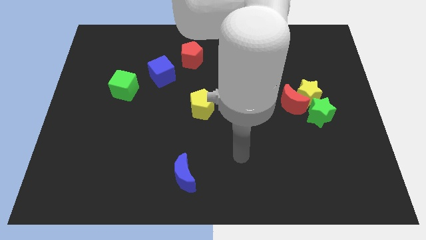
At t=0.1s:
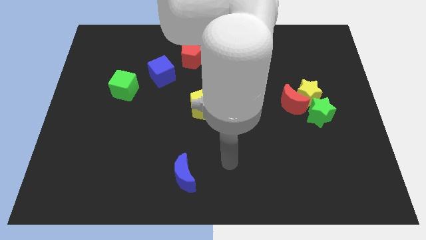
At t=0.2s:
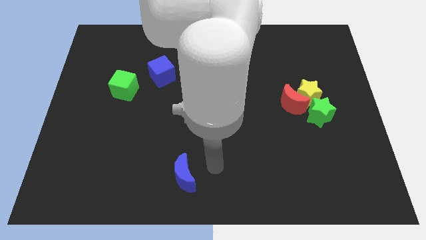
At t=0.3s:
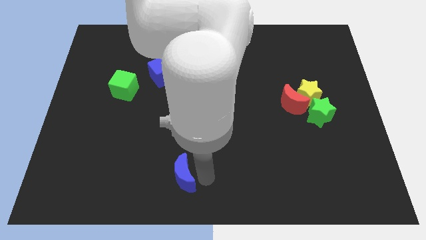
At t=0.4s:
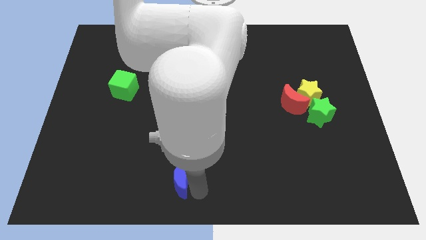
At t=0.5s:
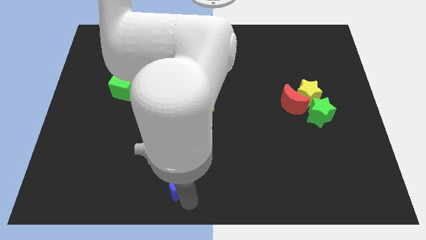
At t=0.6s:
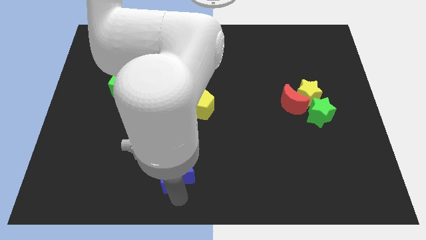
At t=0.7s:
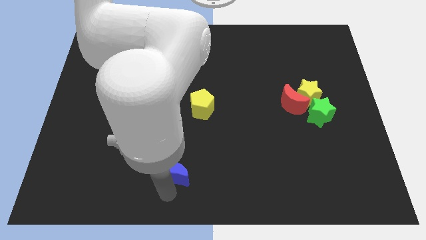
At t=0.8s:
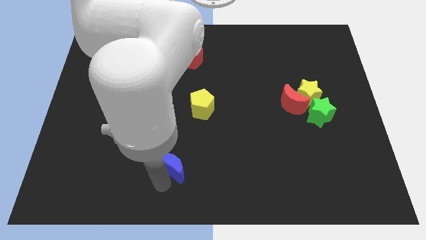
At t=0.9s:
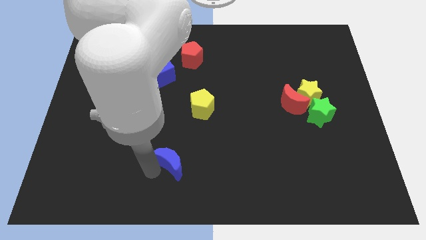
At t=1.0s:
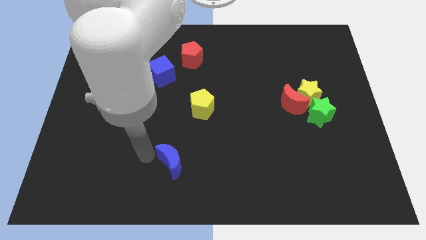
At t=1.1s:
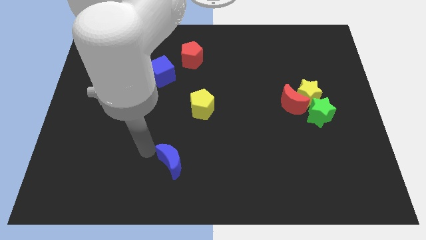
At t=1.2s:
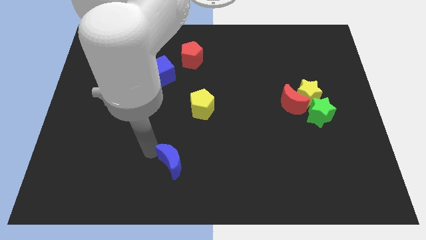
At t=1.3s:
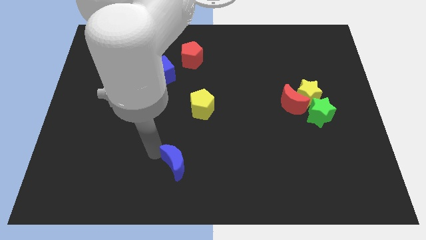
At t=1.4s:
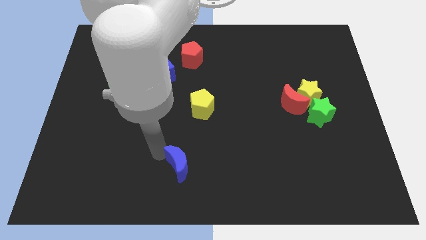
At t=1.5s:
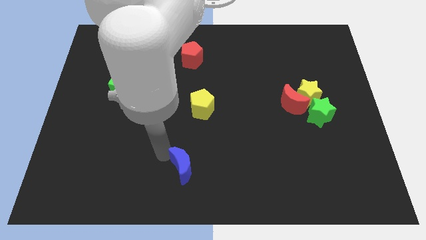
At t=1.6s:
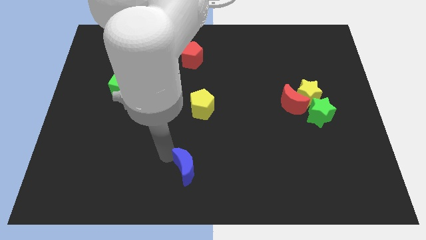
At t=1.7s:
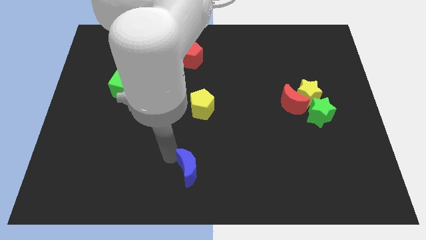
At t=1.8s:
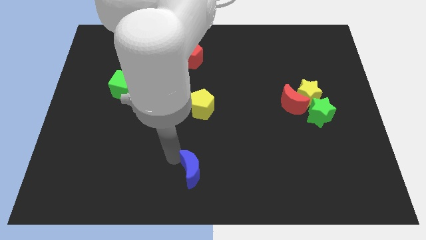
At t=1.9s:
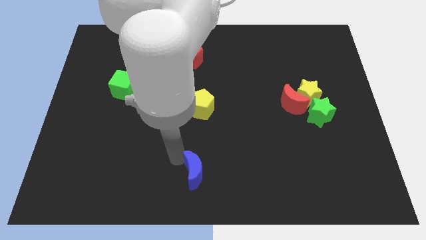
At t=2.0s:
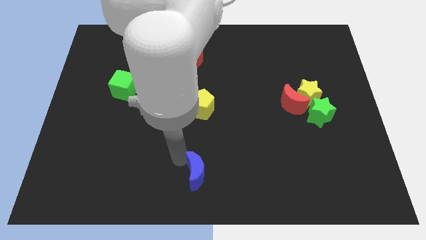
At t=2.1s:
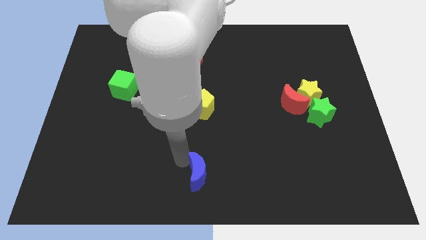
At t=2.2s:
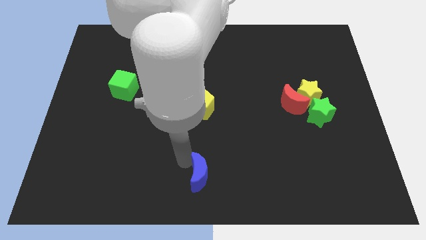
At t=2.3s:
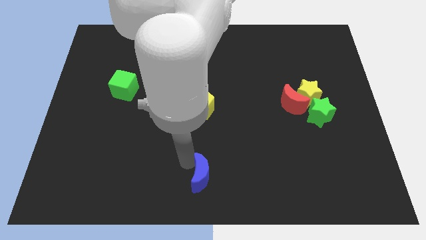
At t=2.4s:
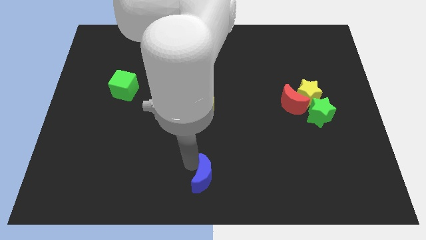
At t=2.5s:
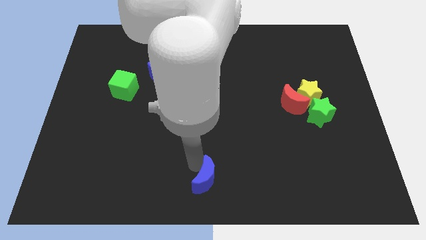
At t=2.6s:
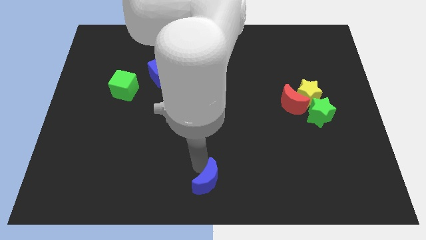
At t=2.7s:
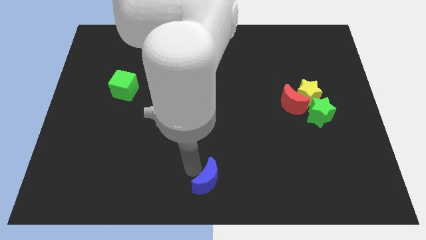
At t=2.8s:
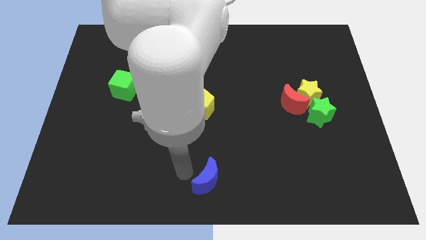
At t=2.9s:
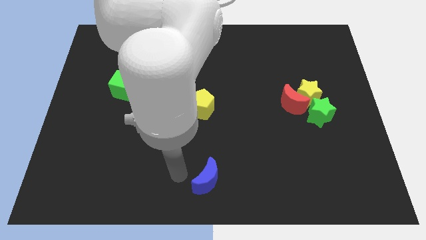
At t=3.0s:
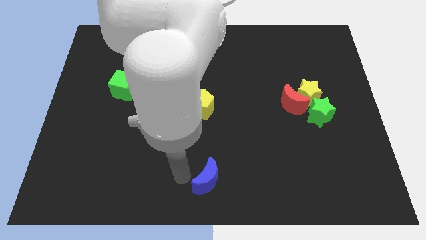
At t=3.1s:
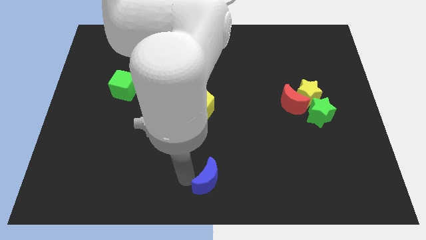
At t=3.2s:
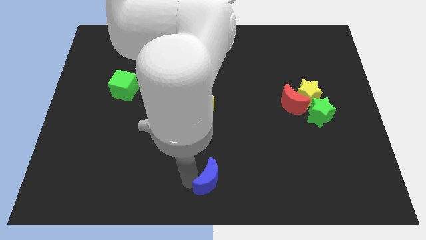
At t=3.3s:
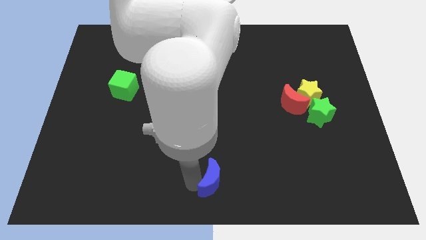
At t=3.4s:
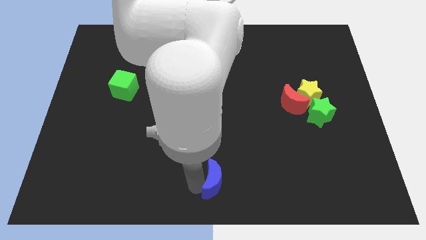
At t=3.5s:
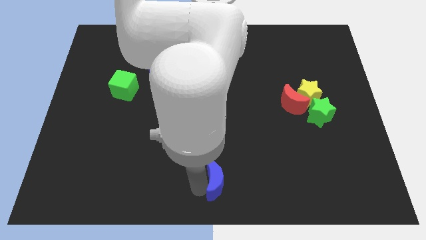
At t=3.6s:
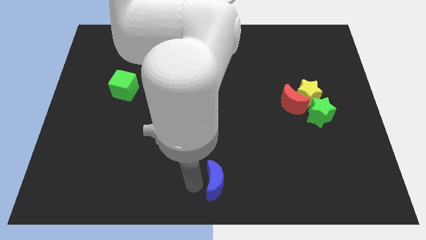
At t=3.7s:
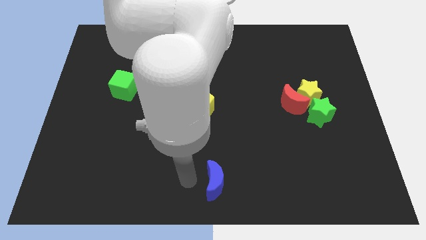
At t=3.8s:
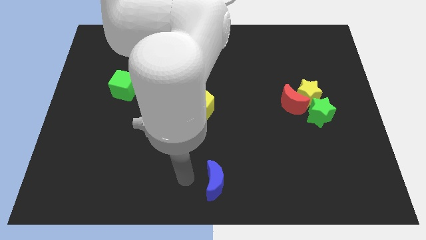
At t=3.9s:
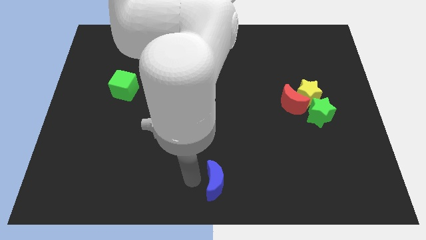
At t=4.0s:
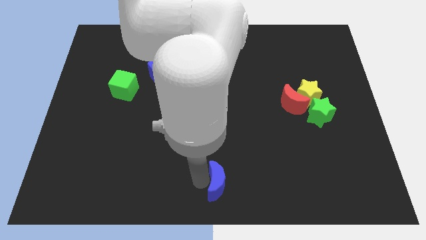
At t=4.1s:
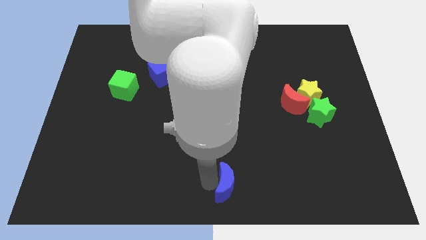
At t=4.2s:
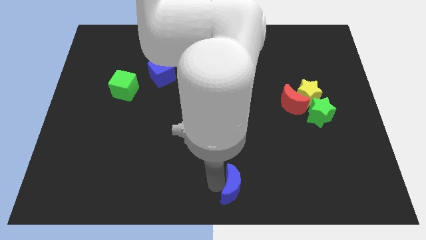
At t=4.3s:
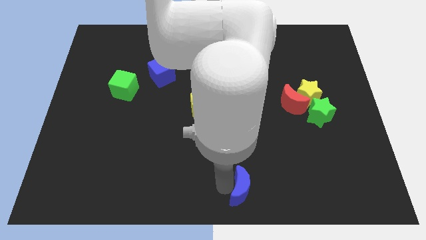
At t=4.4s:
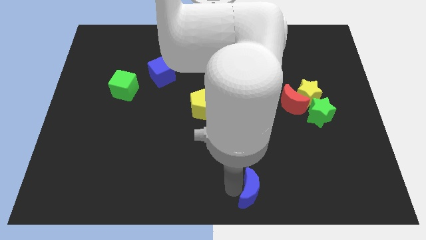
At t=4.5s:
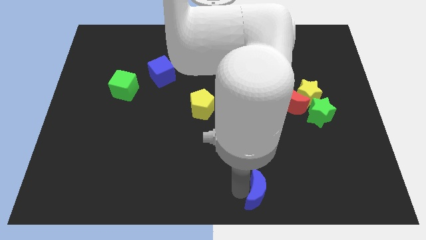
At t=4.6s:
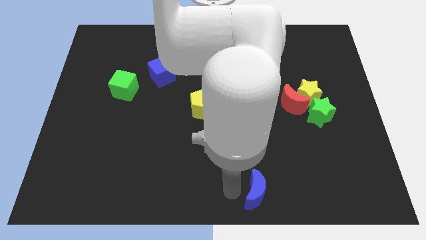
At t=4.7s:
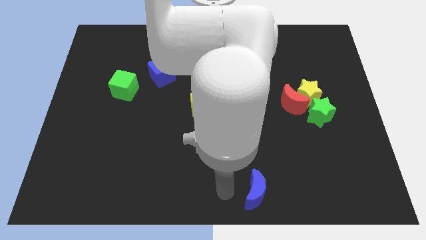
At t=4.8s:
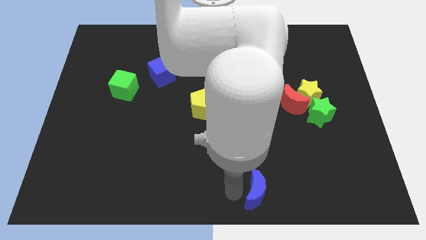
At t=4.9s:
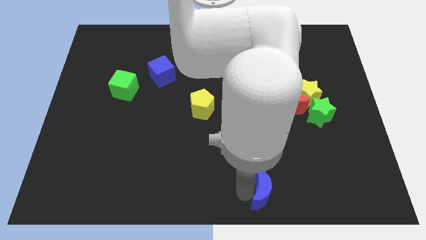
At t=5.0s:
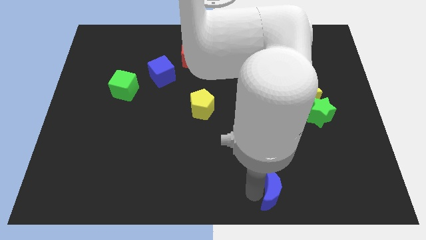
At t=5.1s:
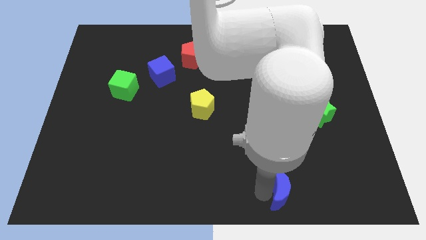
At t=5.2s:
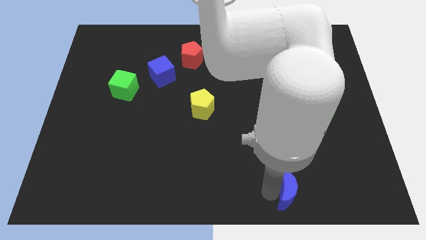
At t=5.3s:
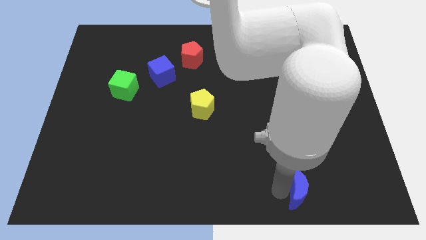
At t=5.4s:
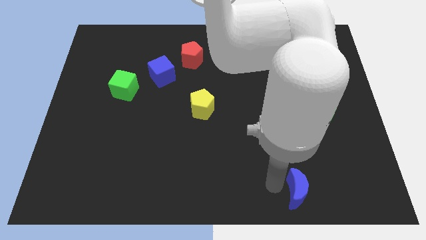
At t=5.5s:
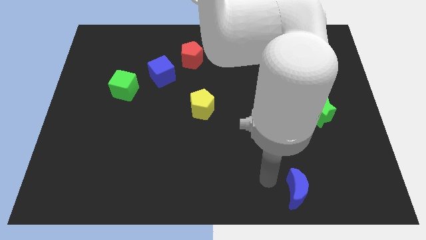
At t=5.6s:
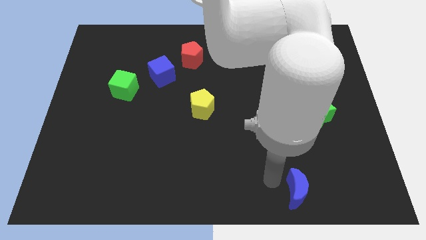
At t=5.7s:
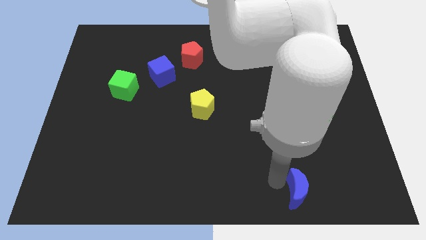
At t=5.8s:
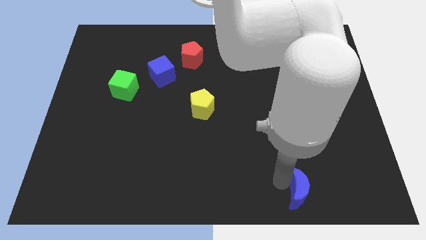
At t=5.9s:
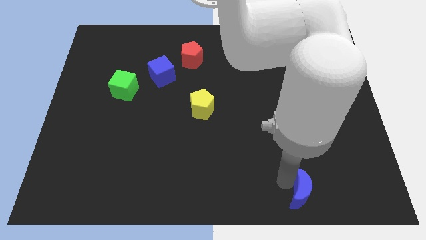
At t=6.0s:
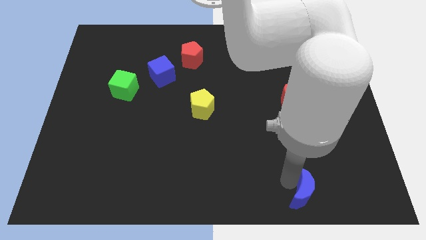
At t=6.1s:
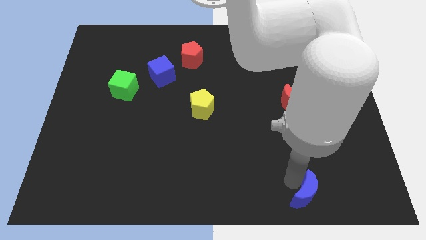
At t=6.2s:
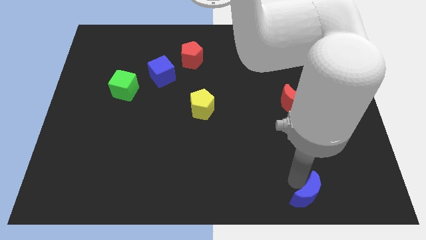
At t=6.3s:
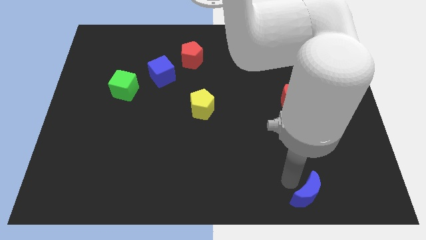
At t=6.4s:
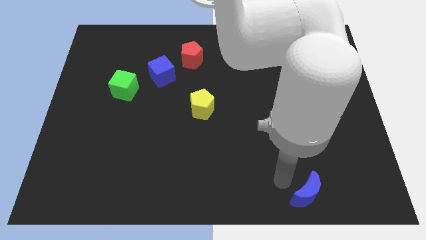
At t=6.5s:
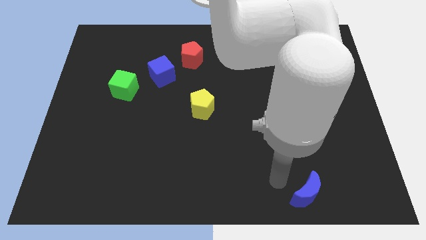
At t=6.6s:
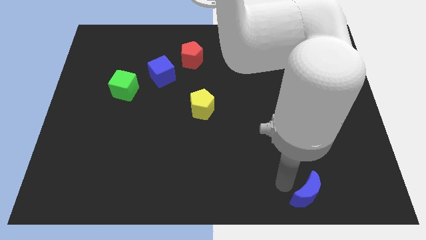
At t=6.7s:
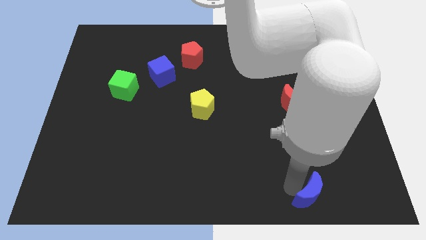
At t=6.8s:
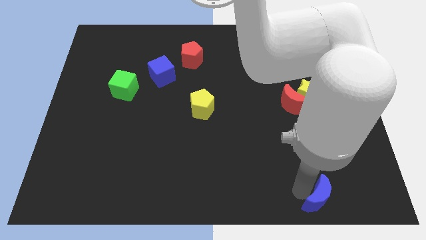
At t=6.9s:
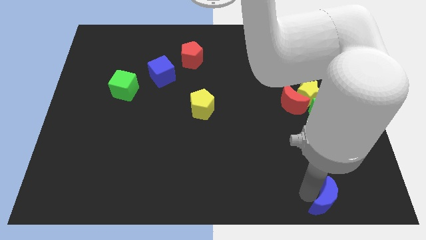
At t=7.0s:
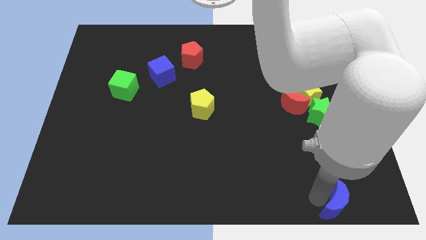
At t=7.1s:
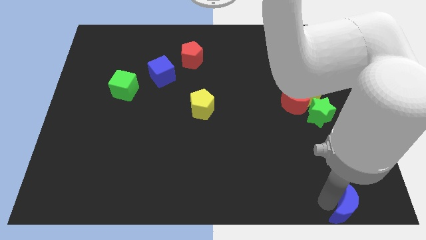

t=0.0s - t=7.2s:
move the blue moon to the bottom right corner
